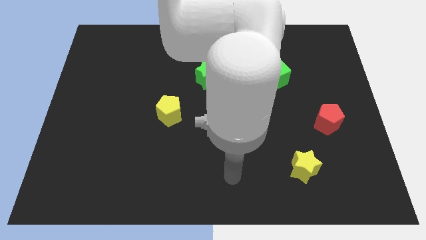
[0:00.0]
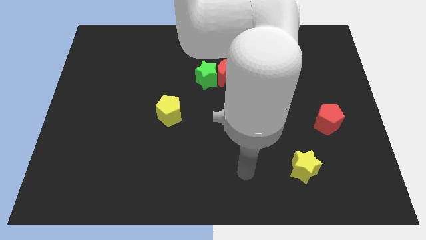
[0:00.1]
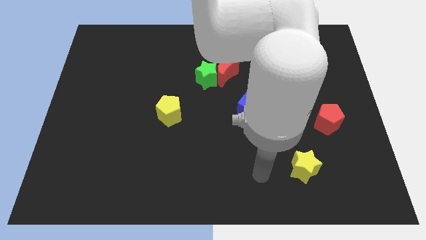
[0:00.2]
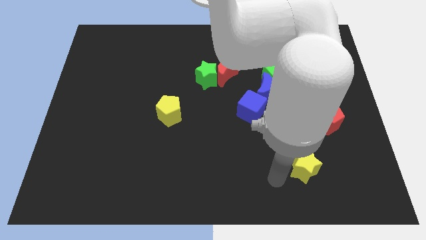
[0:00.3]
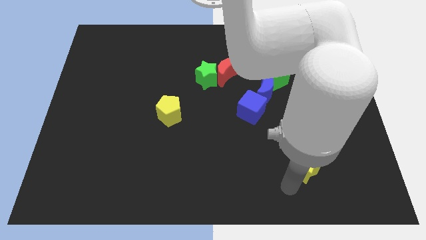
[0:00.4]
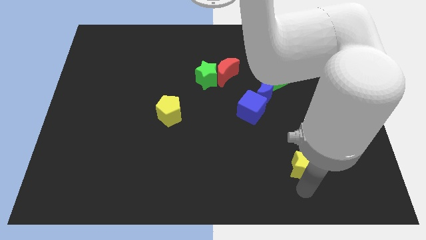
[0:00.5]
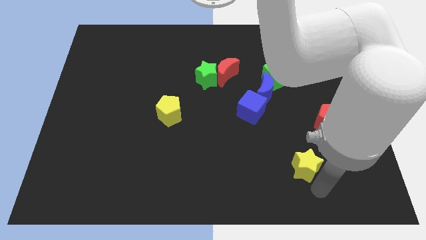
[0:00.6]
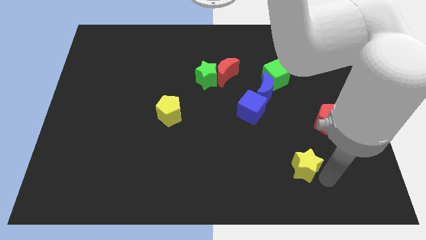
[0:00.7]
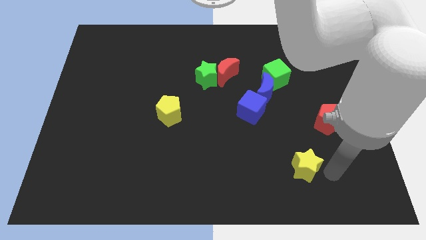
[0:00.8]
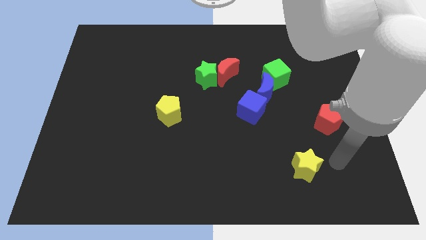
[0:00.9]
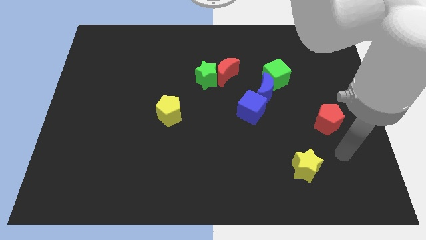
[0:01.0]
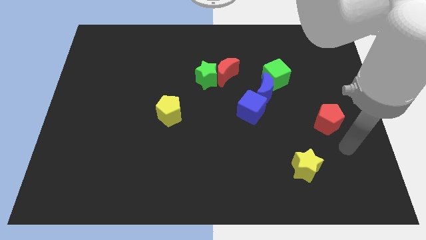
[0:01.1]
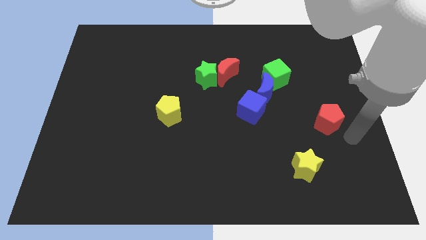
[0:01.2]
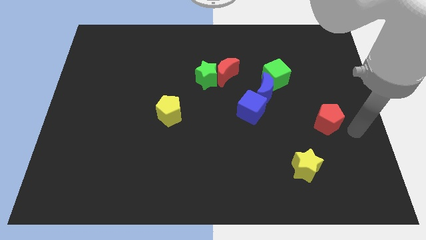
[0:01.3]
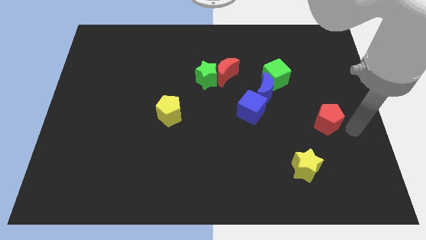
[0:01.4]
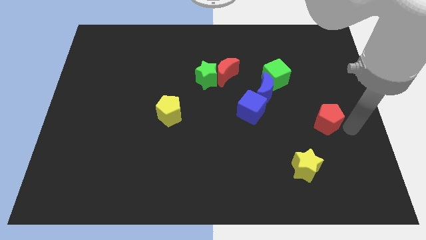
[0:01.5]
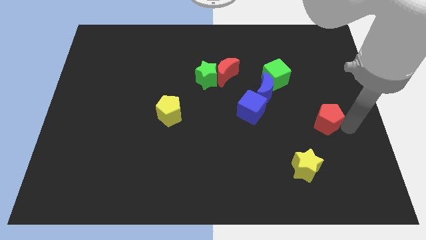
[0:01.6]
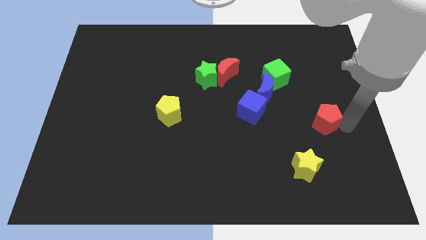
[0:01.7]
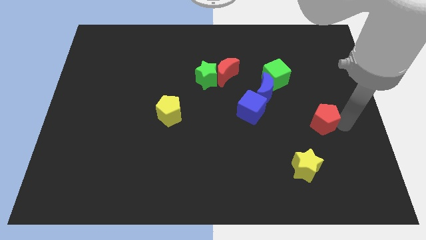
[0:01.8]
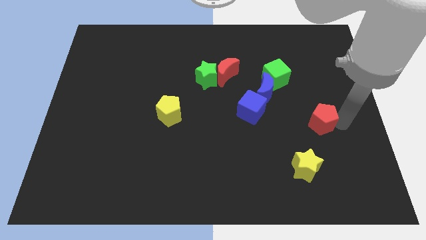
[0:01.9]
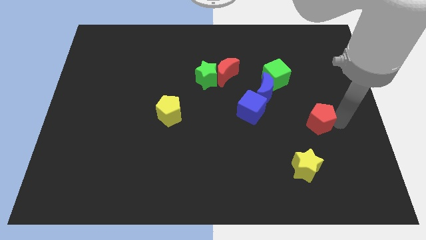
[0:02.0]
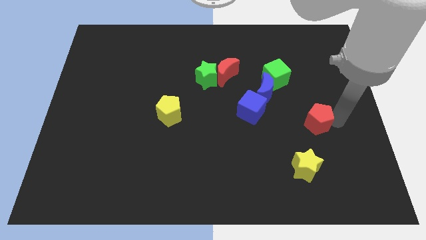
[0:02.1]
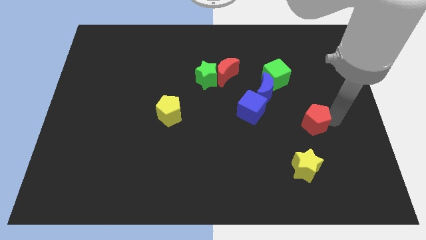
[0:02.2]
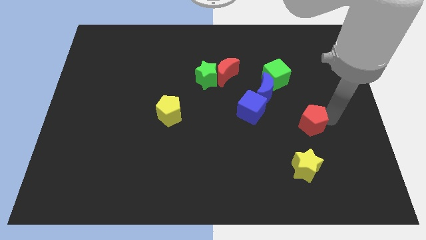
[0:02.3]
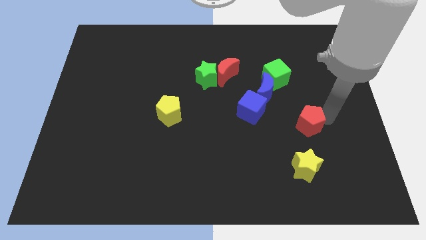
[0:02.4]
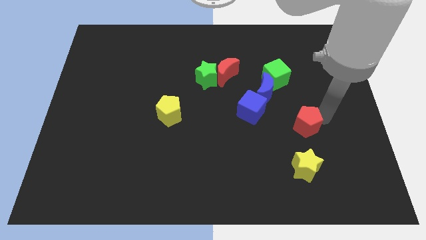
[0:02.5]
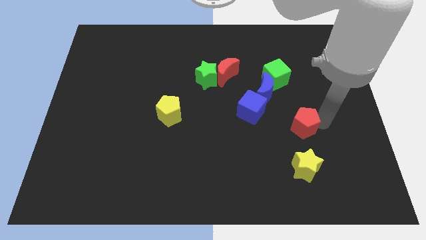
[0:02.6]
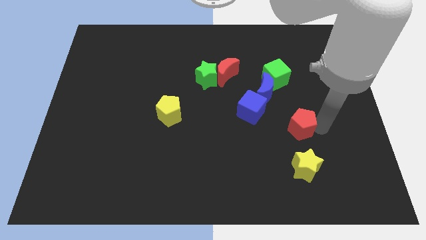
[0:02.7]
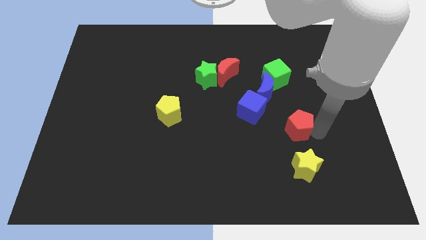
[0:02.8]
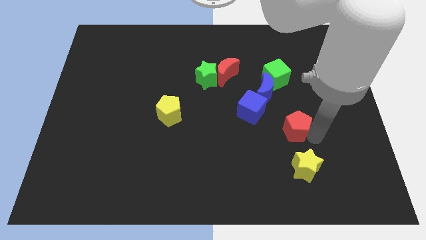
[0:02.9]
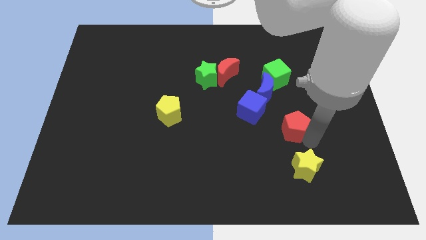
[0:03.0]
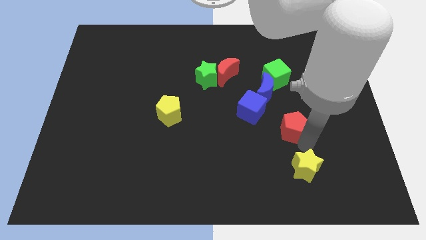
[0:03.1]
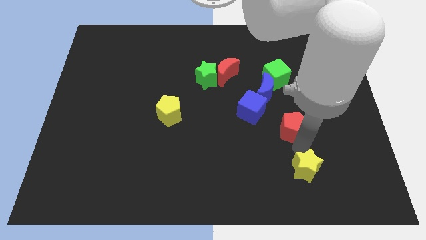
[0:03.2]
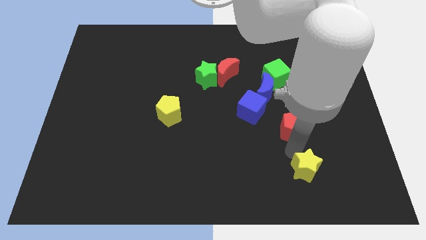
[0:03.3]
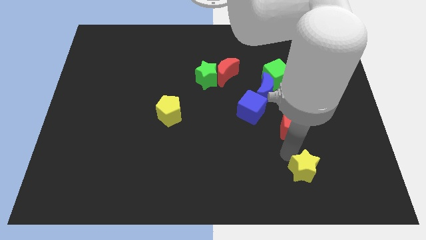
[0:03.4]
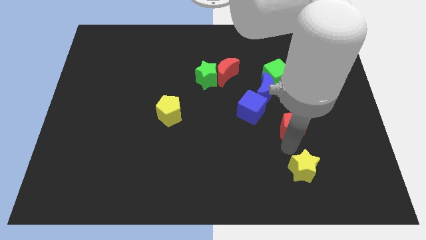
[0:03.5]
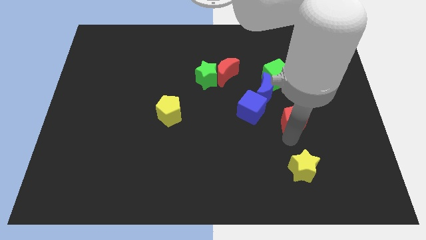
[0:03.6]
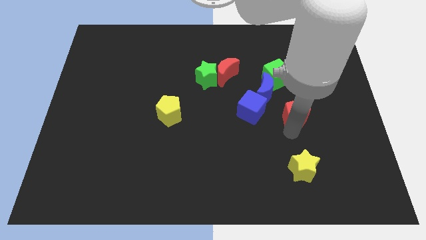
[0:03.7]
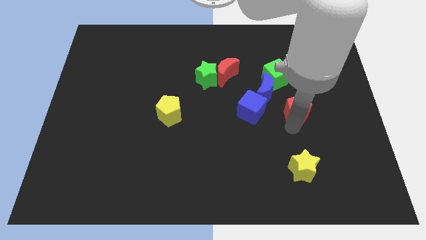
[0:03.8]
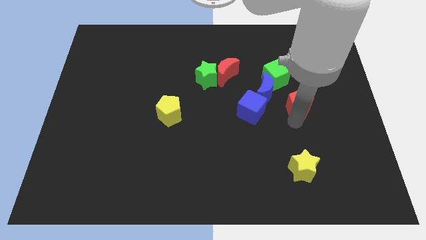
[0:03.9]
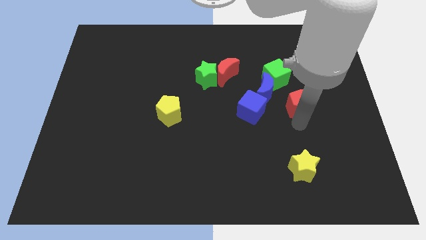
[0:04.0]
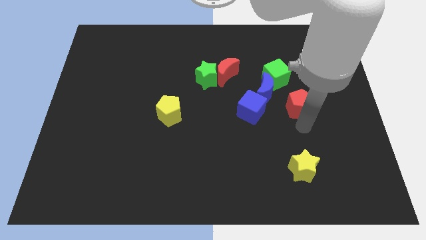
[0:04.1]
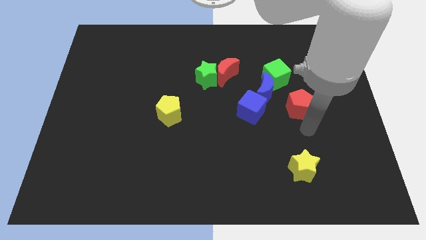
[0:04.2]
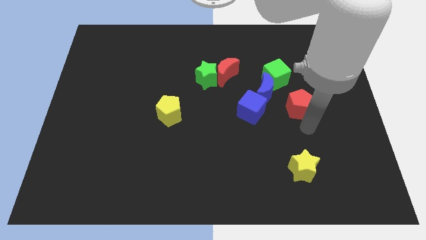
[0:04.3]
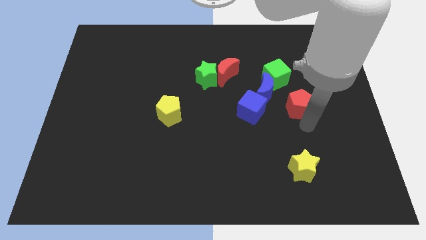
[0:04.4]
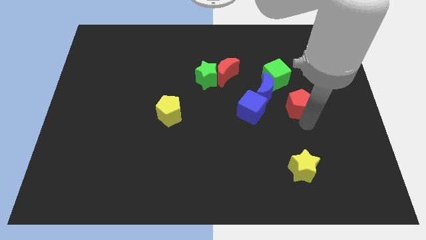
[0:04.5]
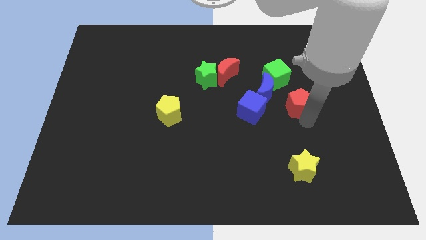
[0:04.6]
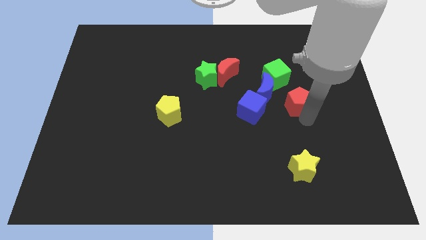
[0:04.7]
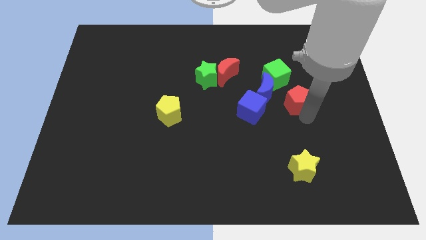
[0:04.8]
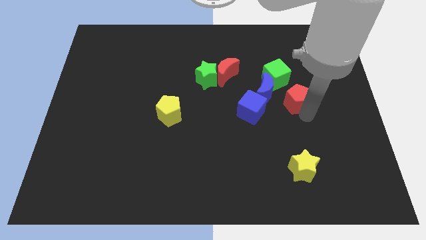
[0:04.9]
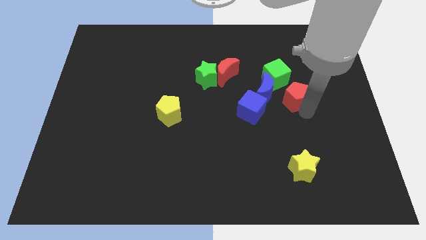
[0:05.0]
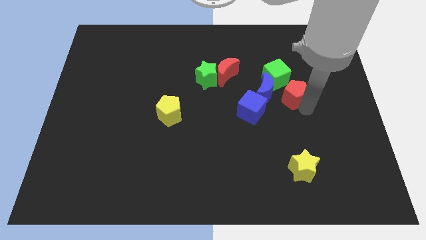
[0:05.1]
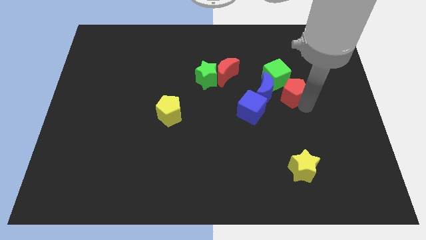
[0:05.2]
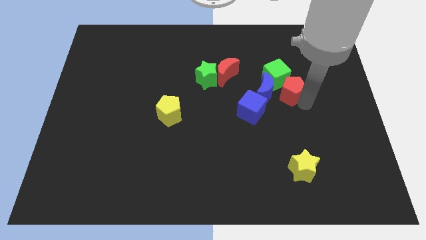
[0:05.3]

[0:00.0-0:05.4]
slide the red pentagon close to the green cube

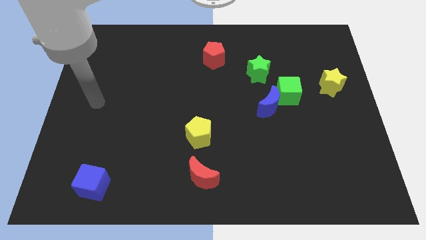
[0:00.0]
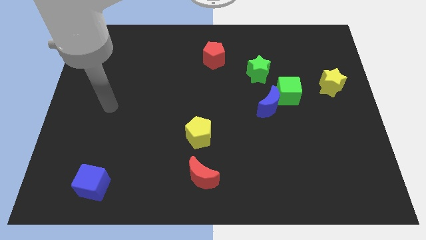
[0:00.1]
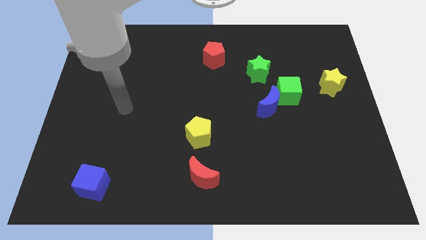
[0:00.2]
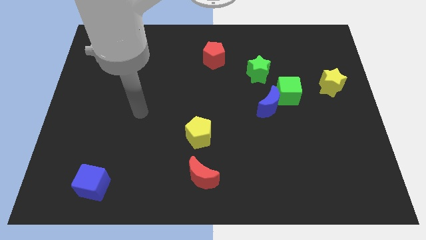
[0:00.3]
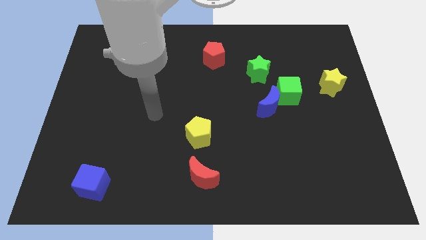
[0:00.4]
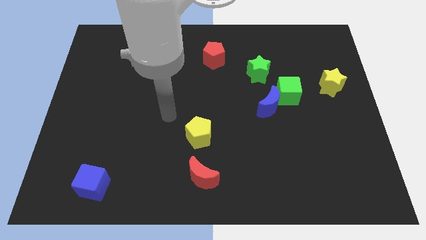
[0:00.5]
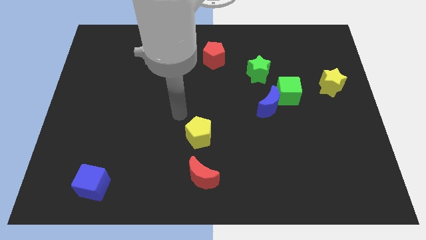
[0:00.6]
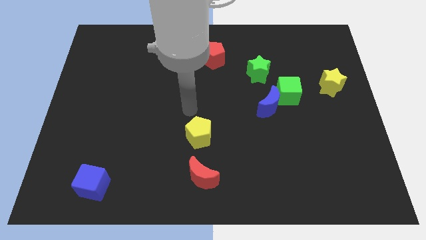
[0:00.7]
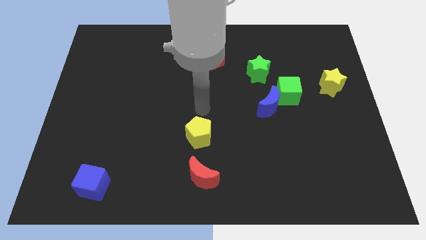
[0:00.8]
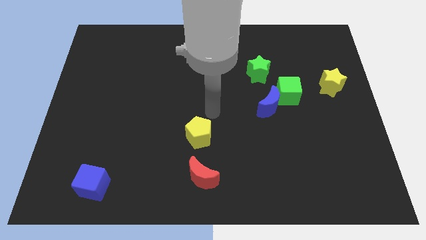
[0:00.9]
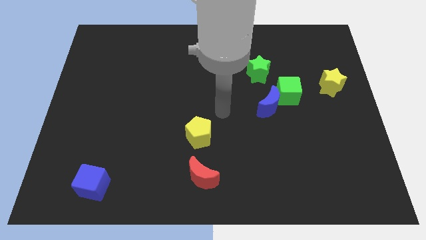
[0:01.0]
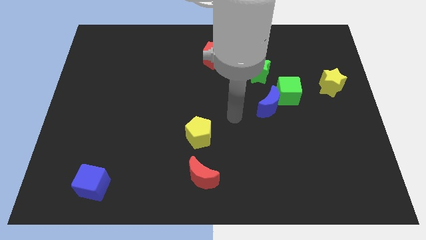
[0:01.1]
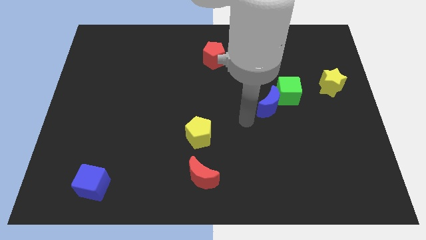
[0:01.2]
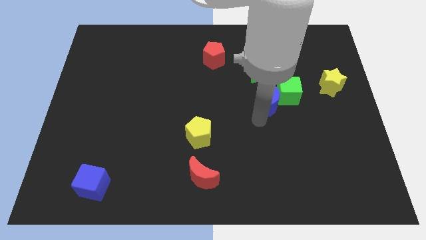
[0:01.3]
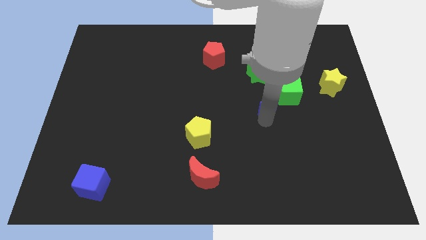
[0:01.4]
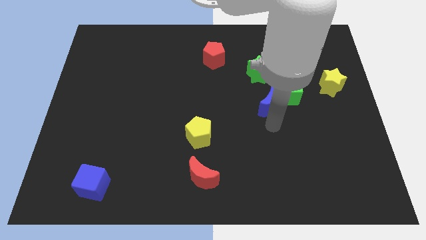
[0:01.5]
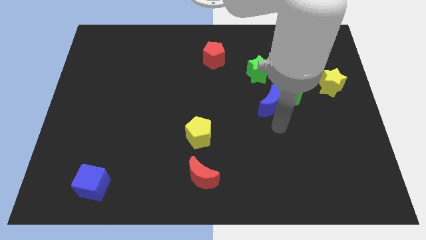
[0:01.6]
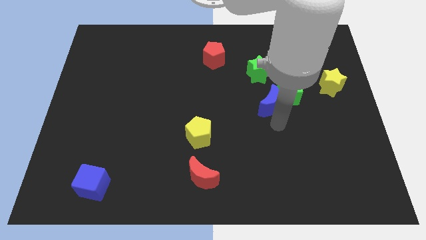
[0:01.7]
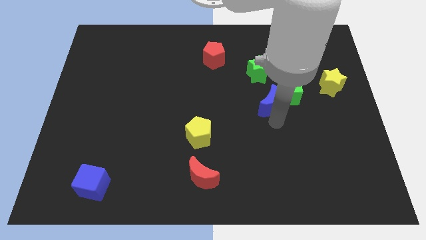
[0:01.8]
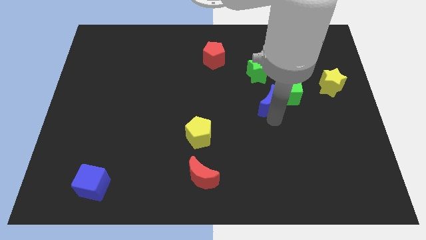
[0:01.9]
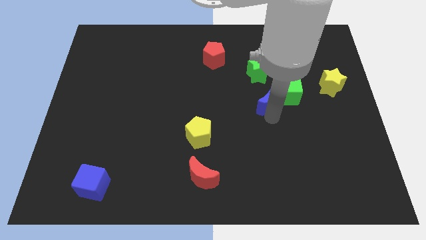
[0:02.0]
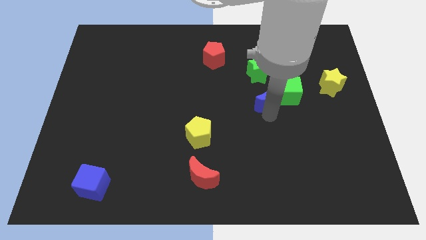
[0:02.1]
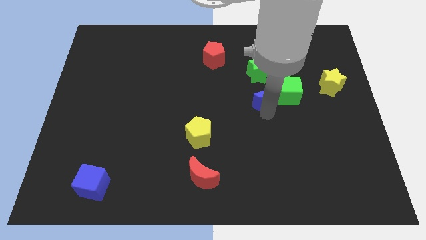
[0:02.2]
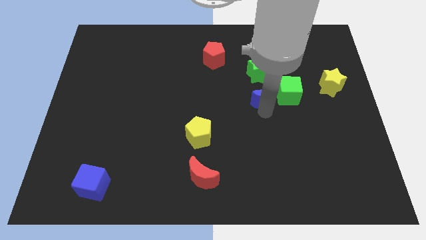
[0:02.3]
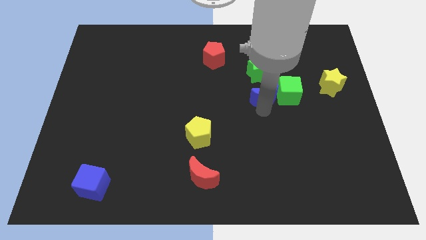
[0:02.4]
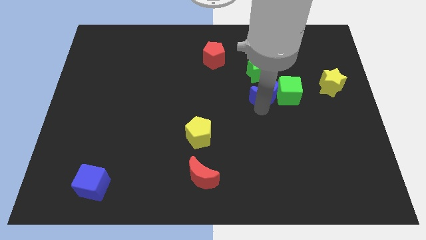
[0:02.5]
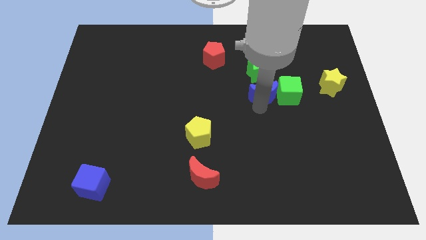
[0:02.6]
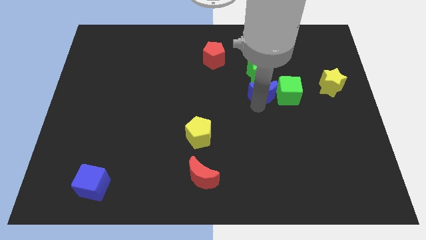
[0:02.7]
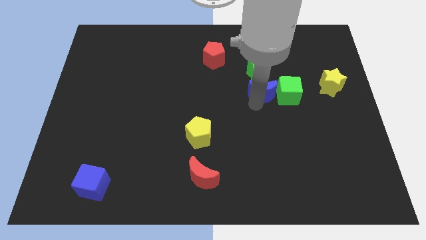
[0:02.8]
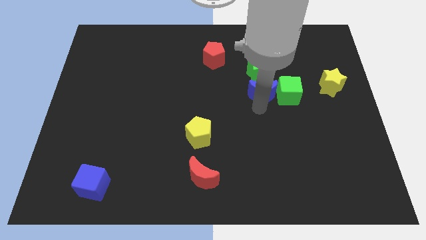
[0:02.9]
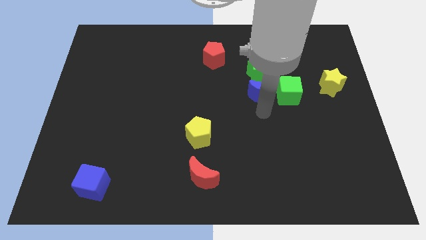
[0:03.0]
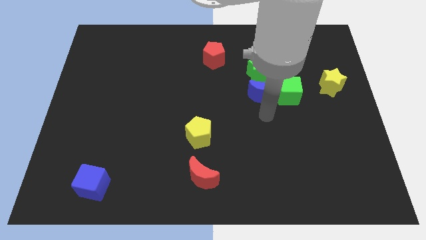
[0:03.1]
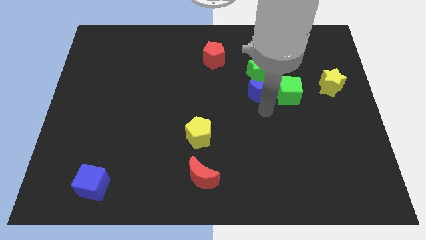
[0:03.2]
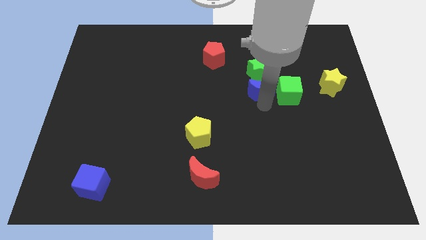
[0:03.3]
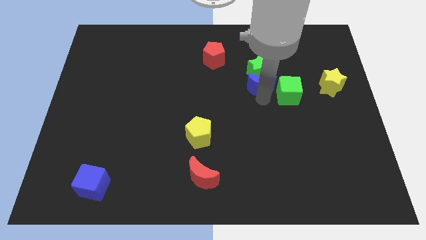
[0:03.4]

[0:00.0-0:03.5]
slide the blue moon close to the green star
